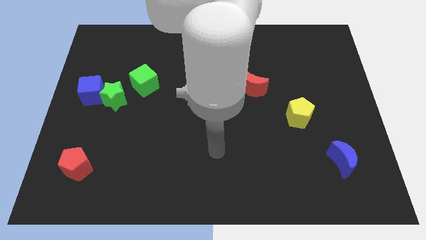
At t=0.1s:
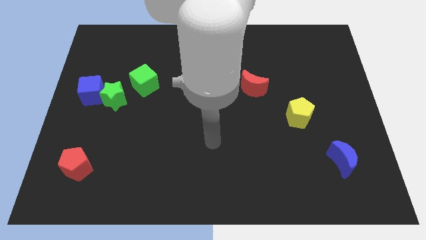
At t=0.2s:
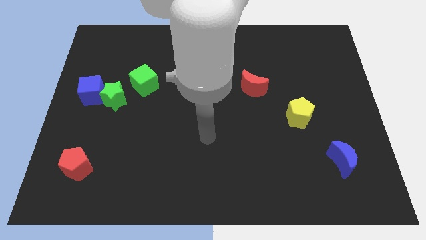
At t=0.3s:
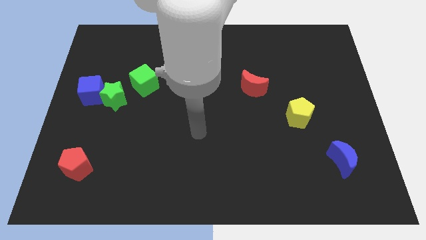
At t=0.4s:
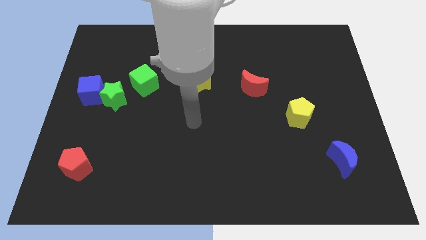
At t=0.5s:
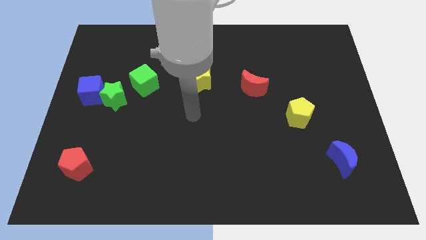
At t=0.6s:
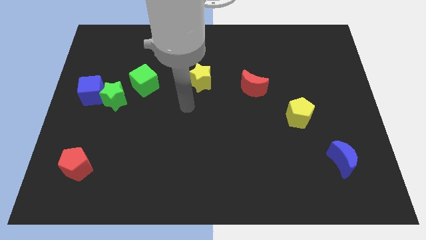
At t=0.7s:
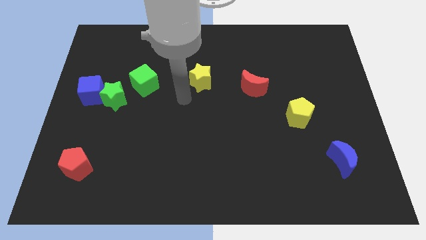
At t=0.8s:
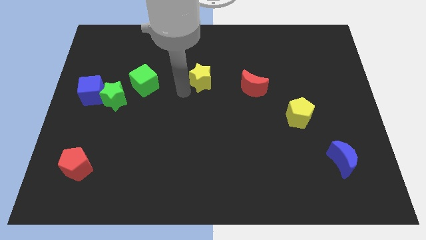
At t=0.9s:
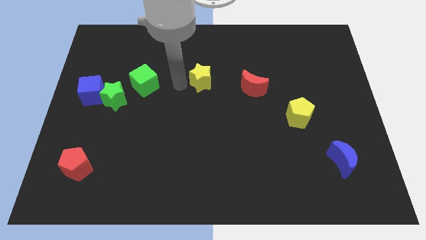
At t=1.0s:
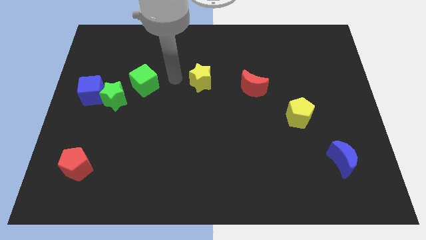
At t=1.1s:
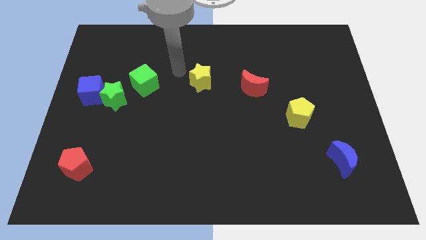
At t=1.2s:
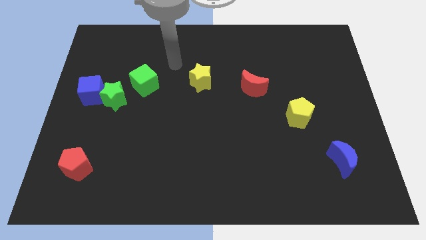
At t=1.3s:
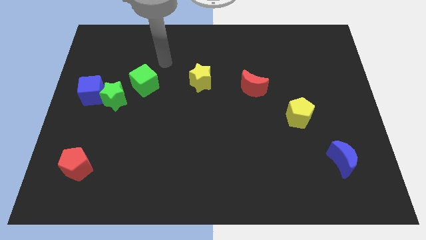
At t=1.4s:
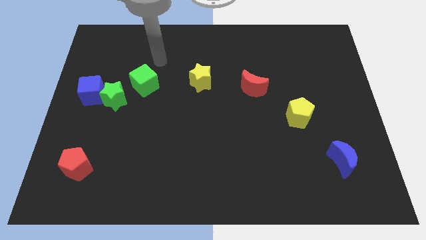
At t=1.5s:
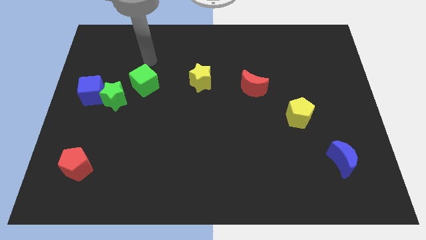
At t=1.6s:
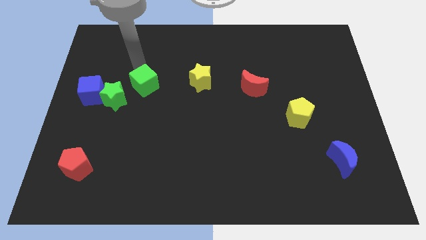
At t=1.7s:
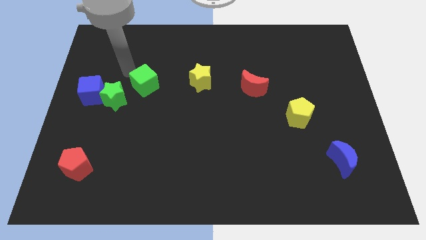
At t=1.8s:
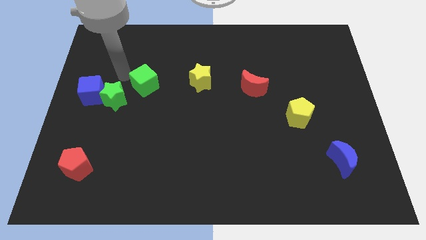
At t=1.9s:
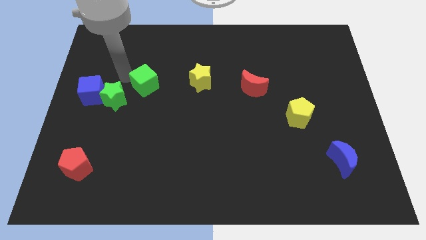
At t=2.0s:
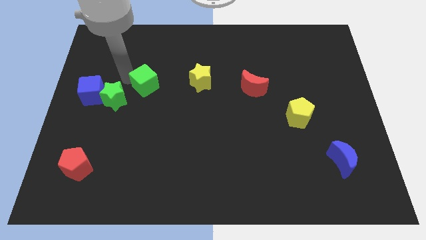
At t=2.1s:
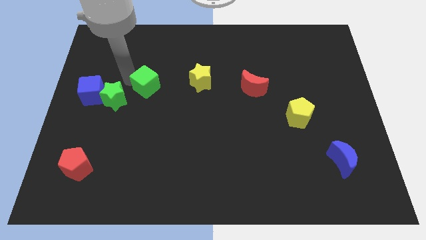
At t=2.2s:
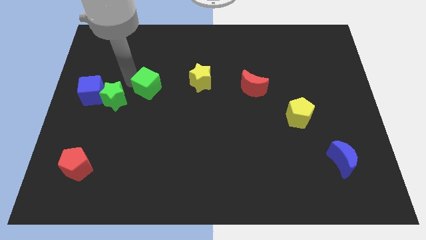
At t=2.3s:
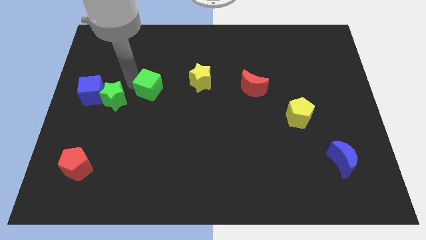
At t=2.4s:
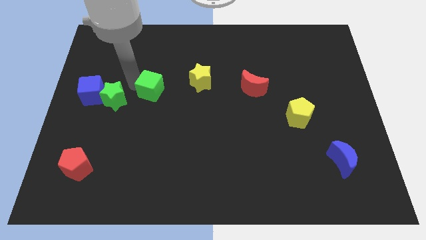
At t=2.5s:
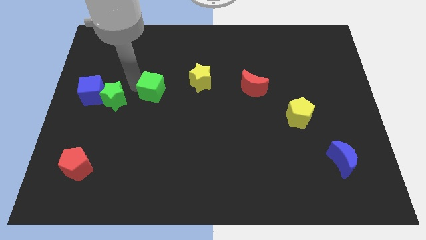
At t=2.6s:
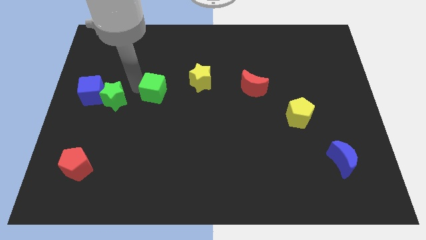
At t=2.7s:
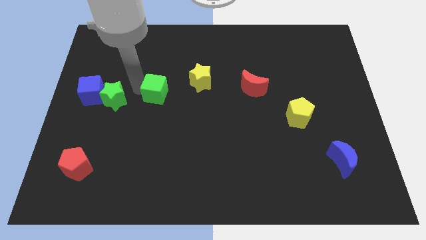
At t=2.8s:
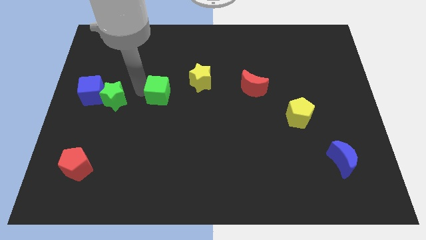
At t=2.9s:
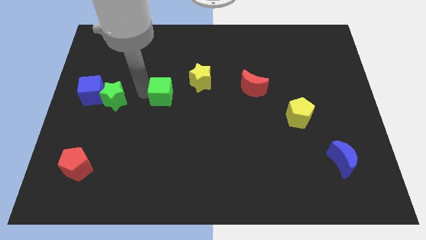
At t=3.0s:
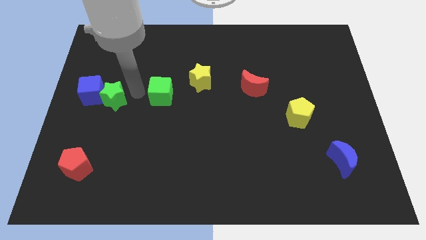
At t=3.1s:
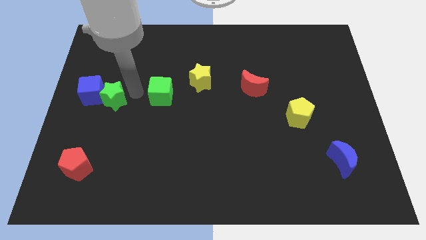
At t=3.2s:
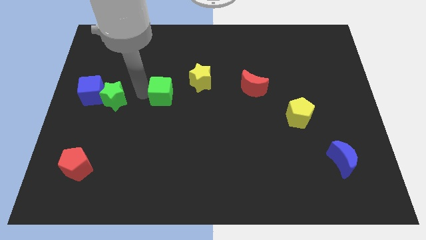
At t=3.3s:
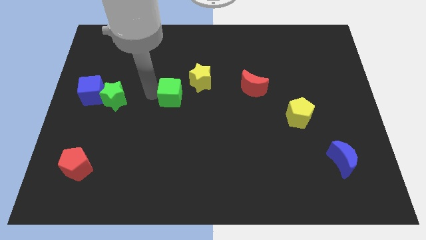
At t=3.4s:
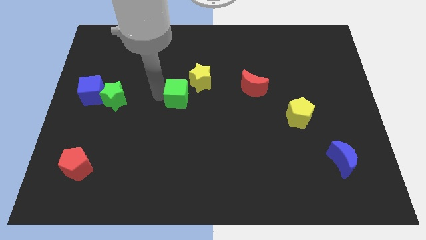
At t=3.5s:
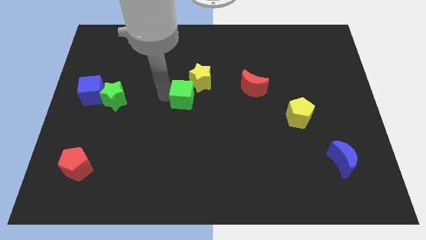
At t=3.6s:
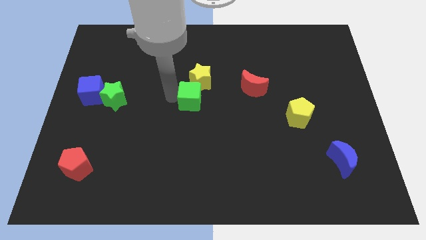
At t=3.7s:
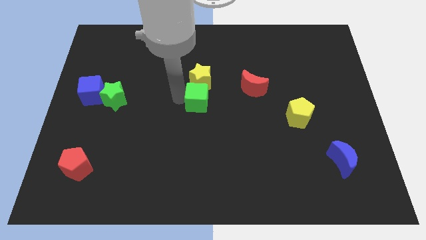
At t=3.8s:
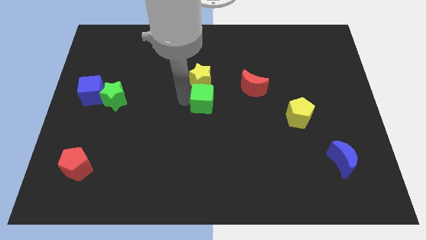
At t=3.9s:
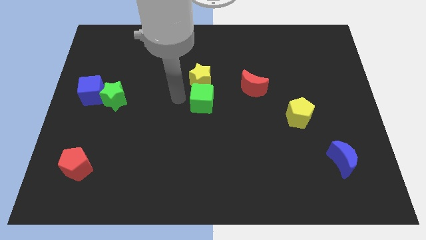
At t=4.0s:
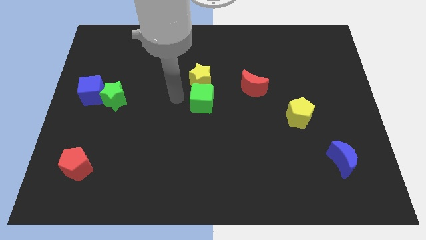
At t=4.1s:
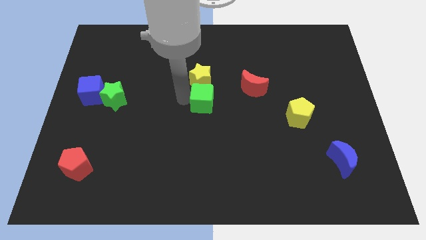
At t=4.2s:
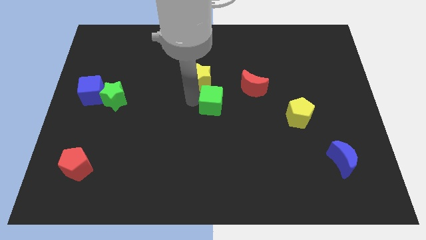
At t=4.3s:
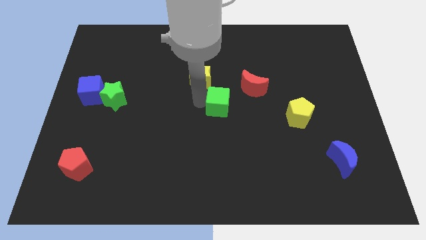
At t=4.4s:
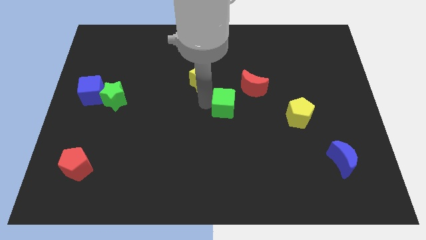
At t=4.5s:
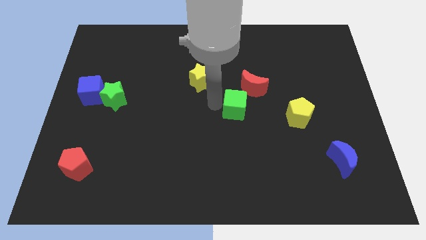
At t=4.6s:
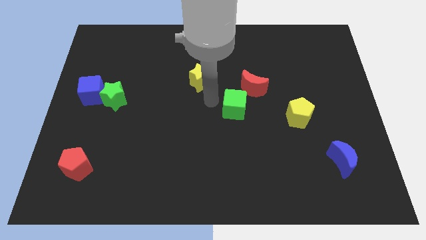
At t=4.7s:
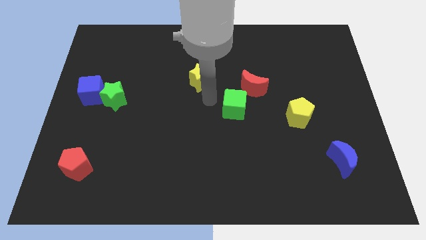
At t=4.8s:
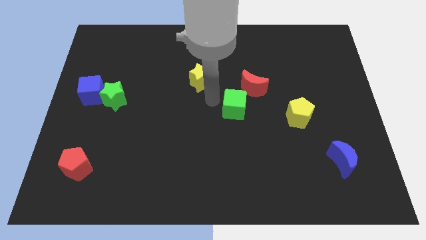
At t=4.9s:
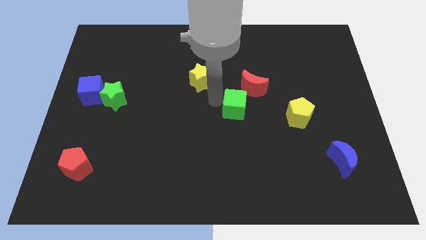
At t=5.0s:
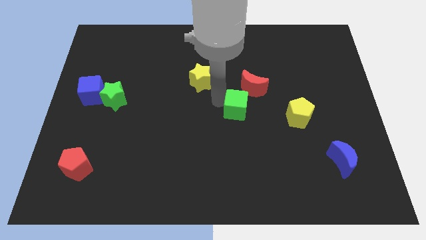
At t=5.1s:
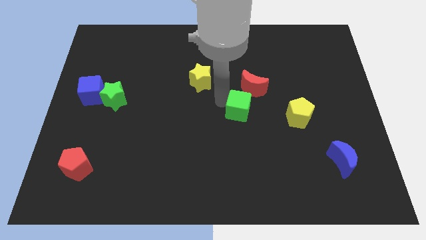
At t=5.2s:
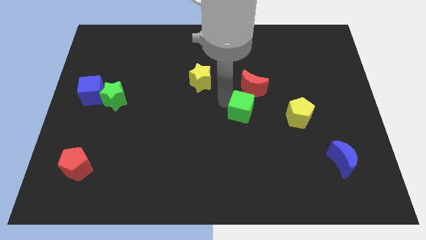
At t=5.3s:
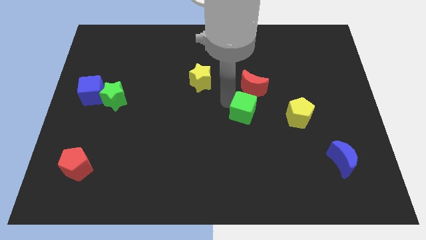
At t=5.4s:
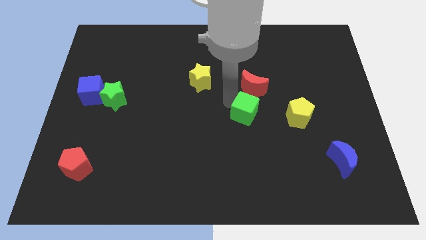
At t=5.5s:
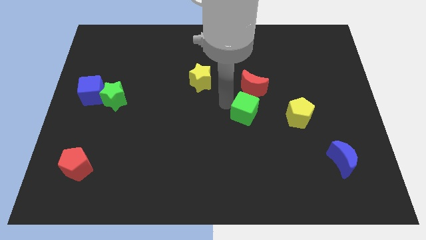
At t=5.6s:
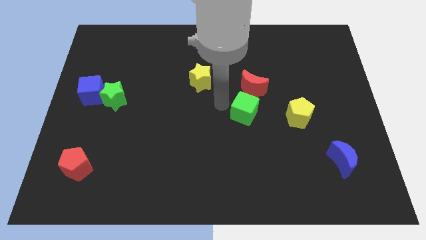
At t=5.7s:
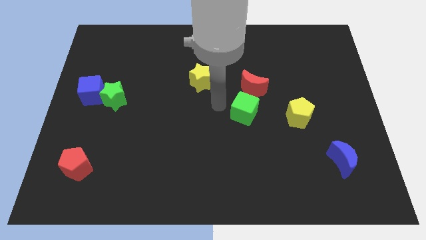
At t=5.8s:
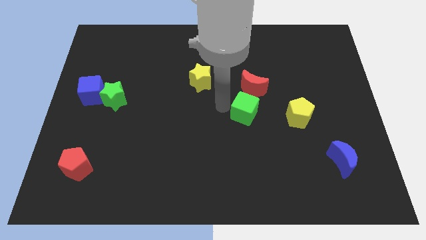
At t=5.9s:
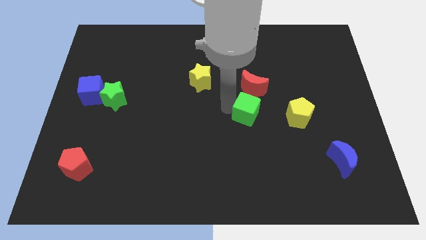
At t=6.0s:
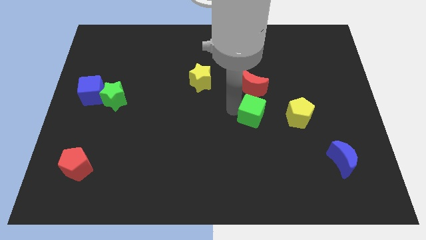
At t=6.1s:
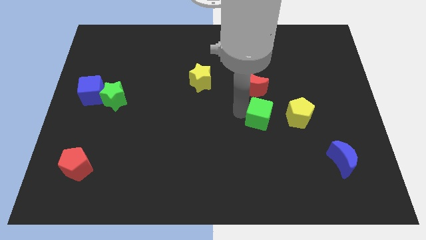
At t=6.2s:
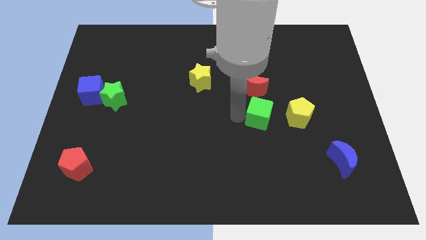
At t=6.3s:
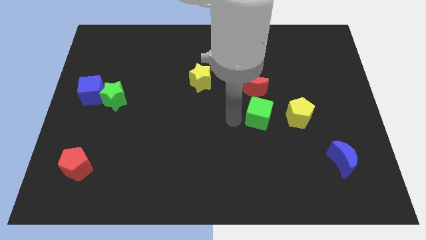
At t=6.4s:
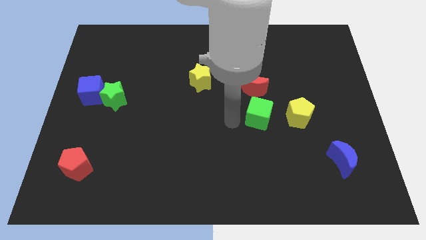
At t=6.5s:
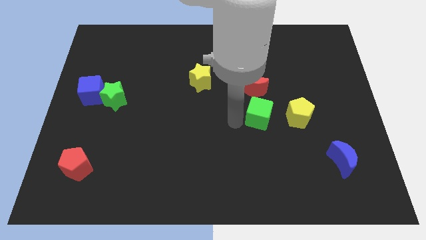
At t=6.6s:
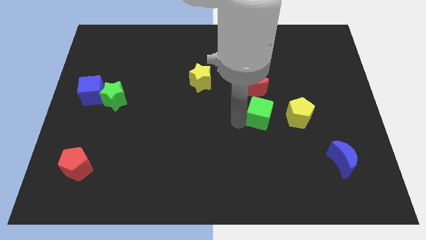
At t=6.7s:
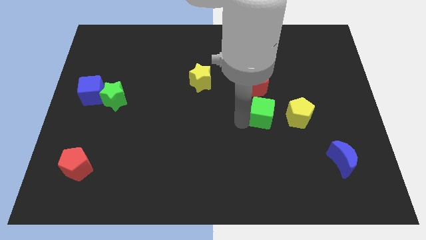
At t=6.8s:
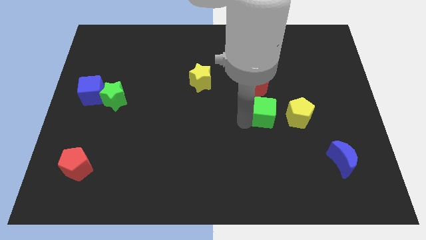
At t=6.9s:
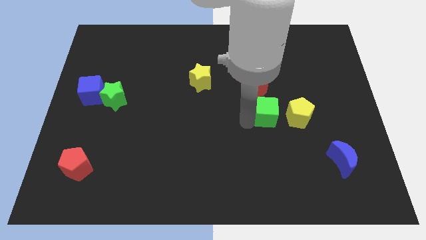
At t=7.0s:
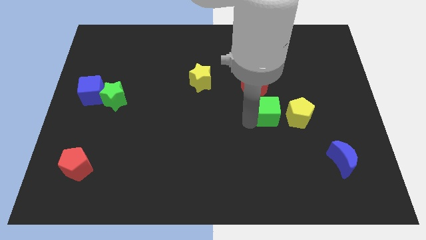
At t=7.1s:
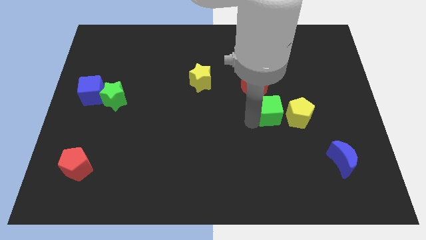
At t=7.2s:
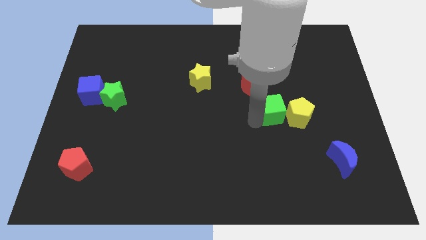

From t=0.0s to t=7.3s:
put the green cube towards the yellow pentagon

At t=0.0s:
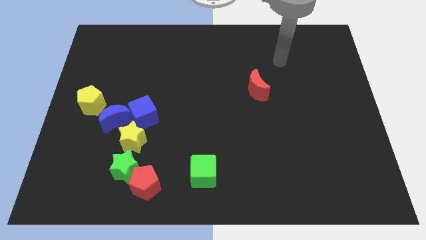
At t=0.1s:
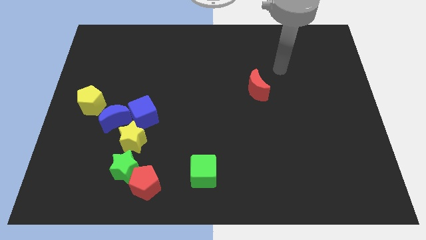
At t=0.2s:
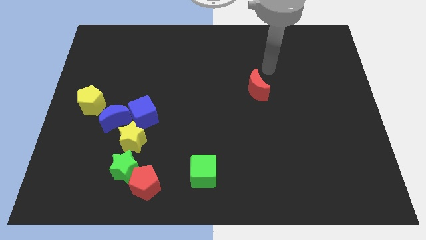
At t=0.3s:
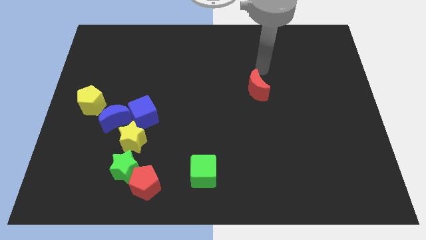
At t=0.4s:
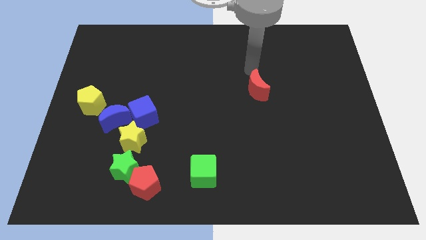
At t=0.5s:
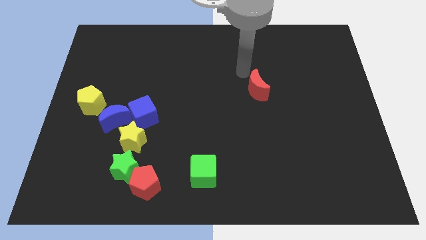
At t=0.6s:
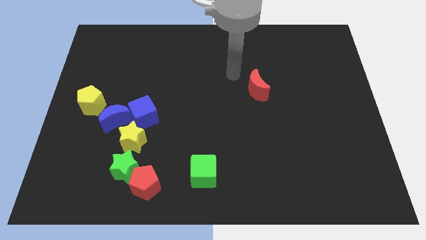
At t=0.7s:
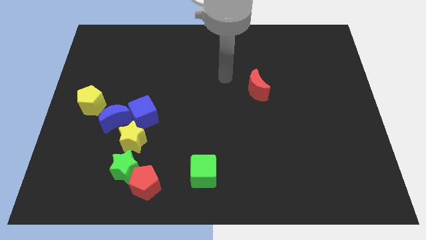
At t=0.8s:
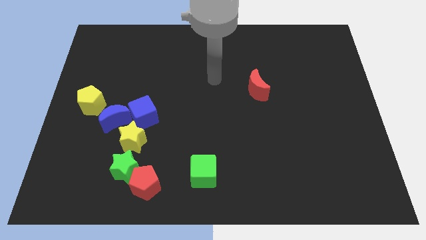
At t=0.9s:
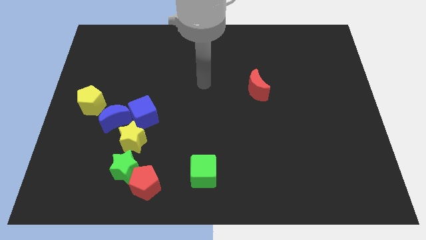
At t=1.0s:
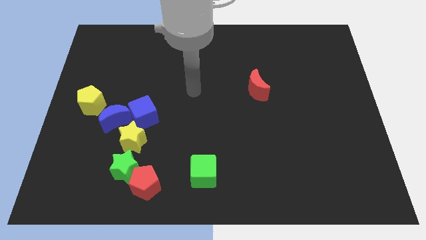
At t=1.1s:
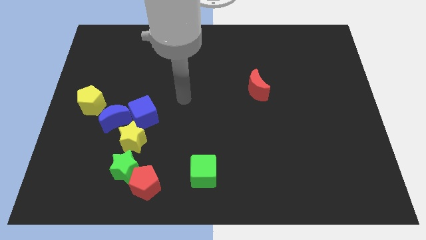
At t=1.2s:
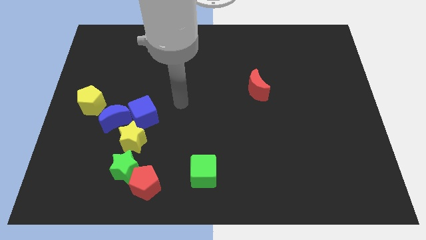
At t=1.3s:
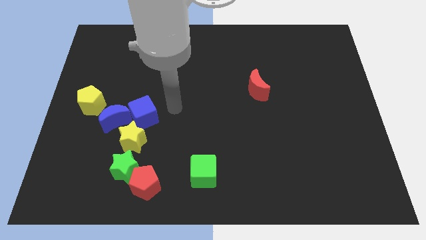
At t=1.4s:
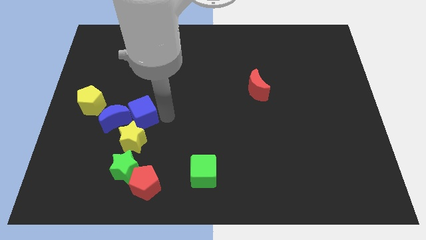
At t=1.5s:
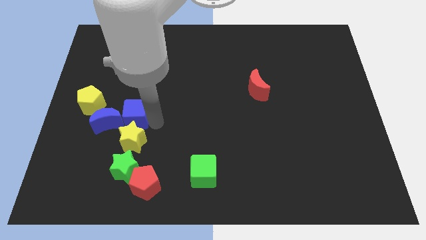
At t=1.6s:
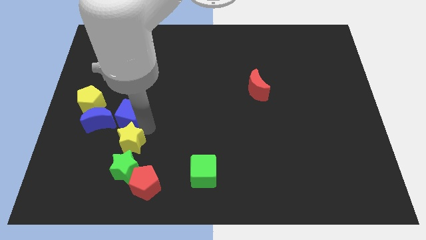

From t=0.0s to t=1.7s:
push the blue moon next to the yellow pentagon
